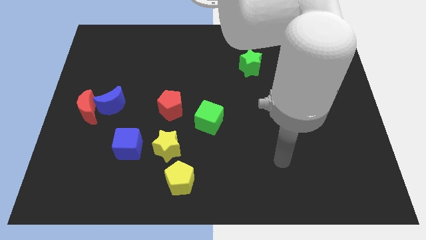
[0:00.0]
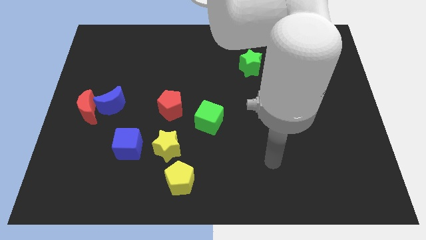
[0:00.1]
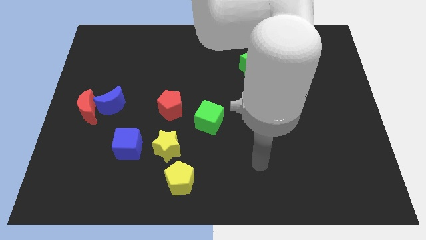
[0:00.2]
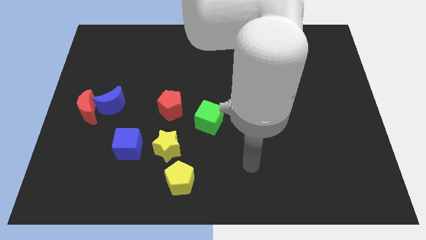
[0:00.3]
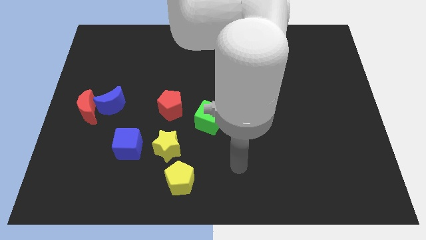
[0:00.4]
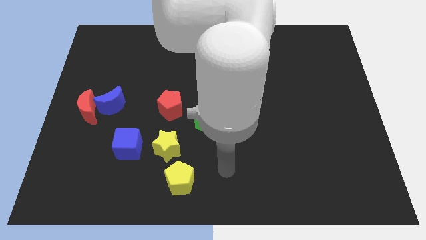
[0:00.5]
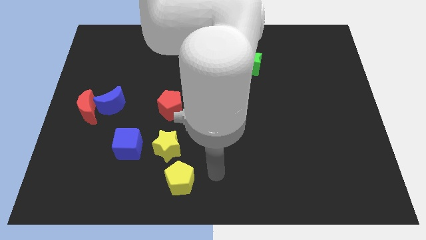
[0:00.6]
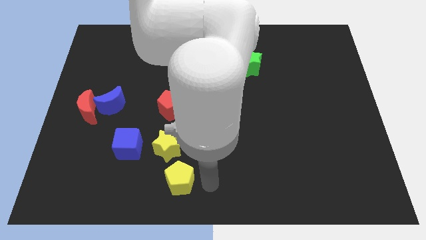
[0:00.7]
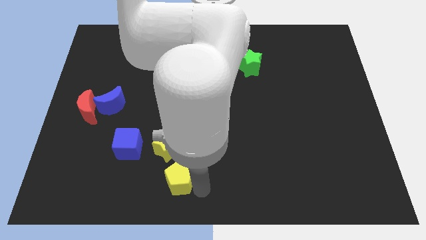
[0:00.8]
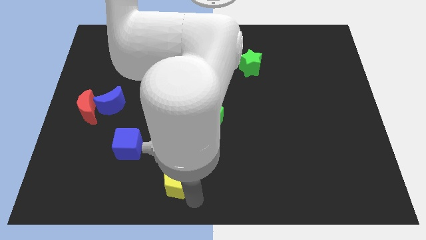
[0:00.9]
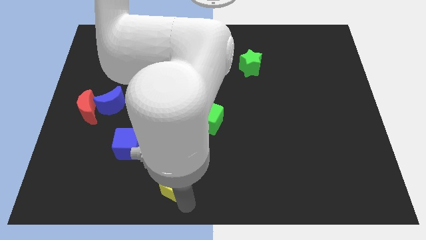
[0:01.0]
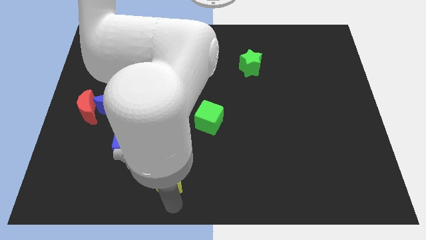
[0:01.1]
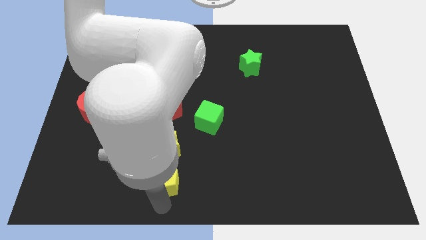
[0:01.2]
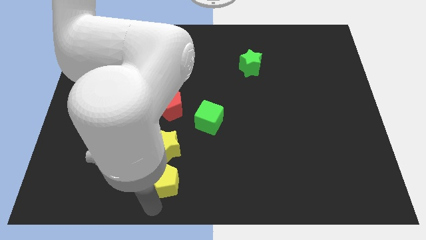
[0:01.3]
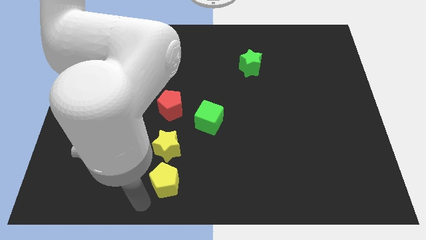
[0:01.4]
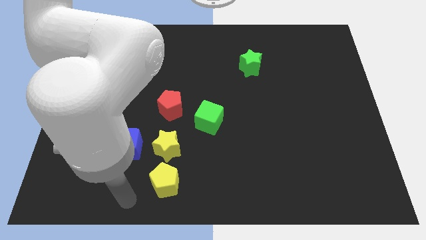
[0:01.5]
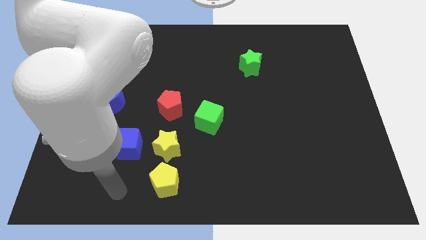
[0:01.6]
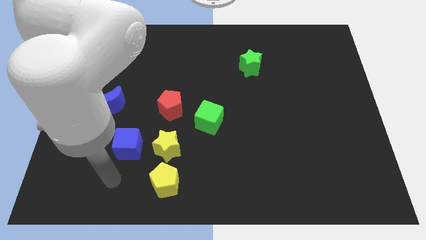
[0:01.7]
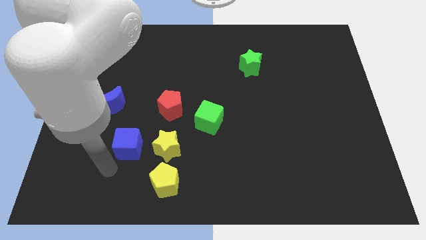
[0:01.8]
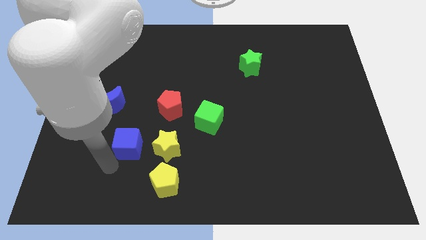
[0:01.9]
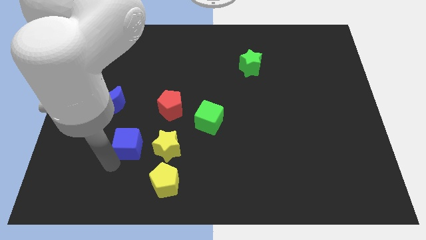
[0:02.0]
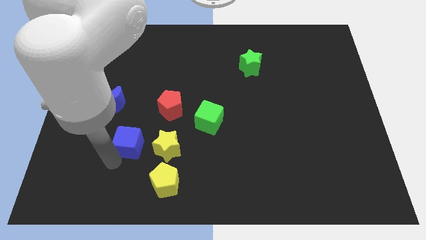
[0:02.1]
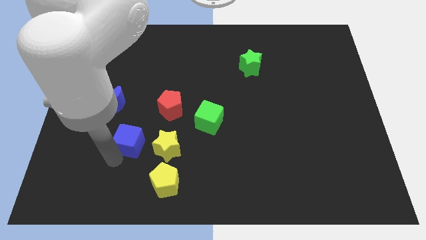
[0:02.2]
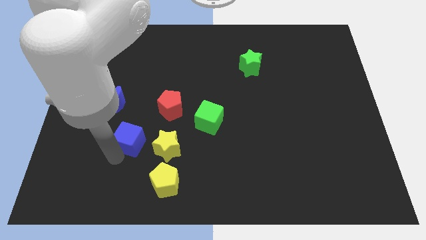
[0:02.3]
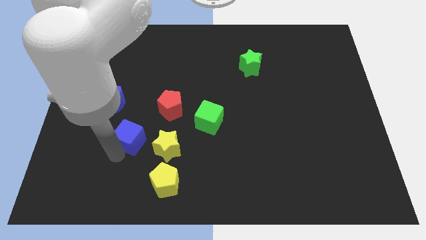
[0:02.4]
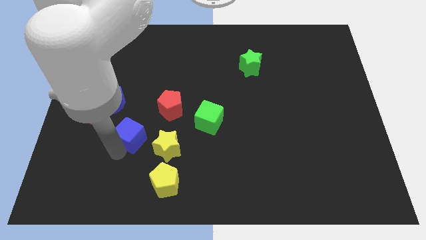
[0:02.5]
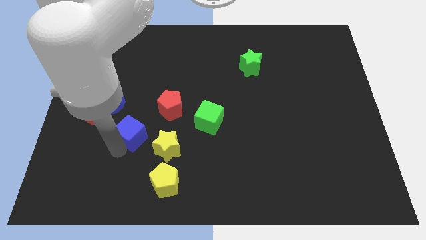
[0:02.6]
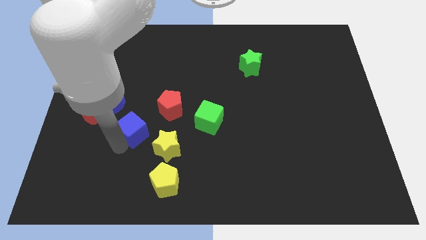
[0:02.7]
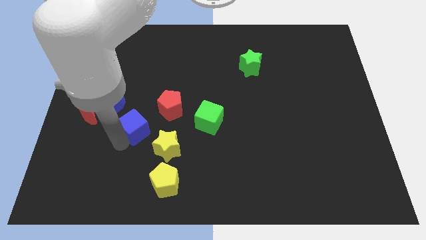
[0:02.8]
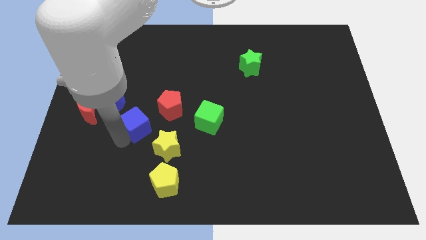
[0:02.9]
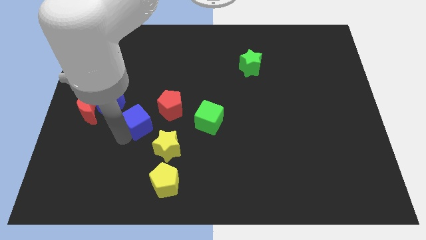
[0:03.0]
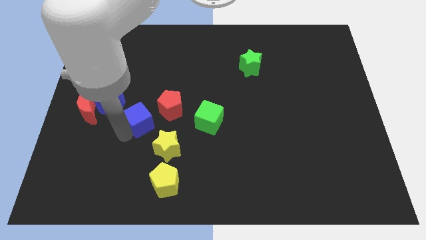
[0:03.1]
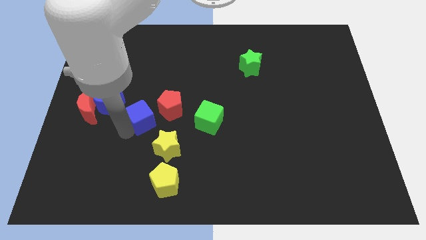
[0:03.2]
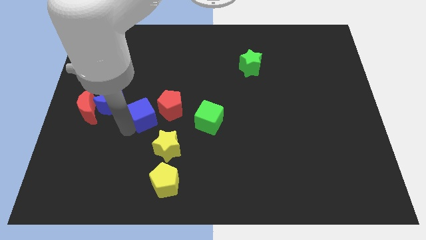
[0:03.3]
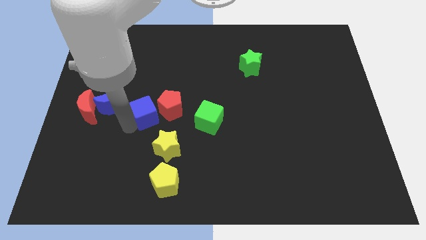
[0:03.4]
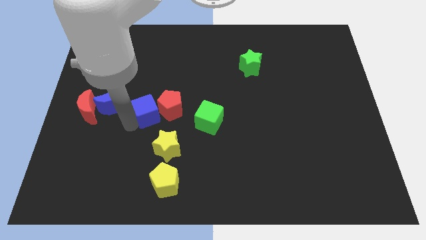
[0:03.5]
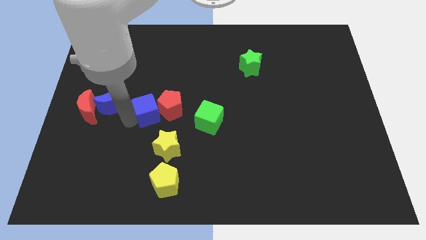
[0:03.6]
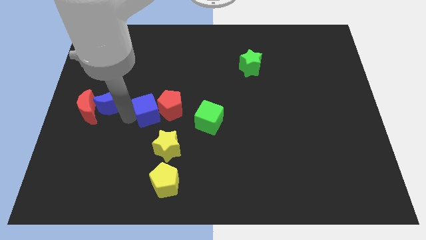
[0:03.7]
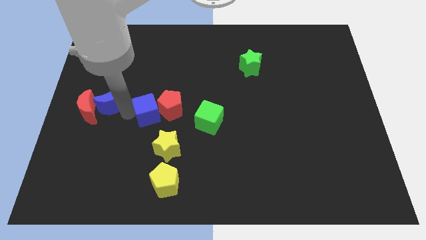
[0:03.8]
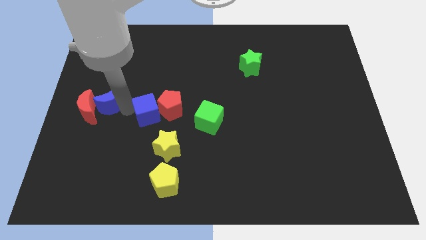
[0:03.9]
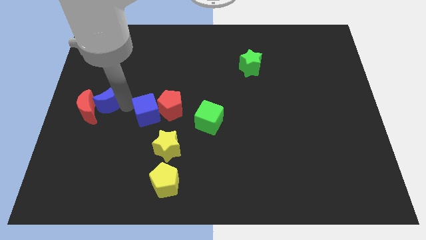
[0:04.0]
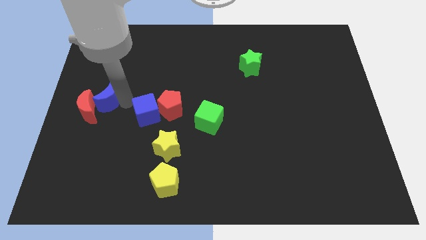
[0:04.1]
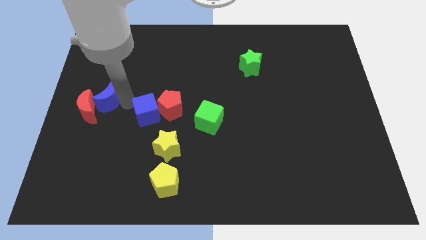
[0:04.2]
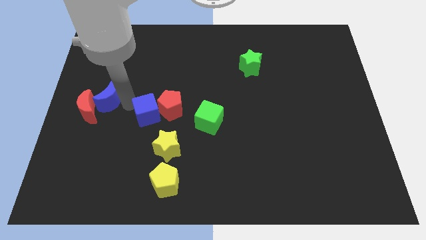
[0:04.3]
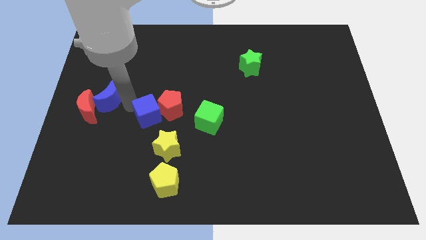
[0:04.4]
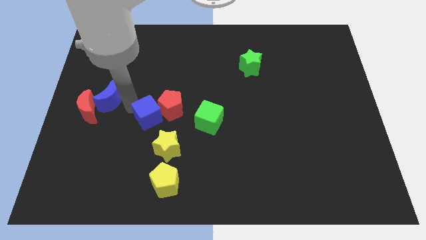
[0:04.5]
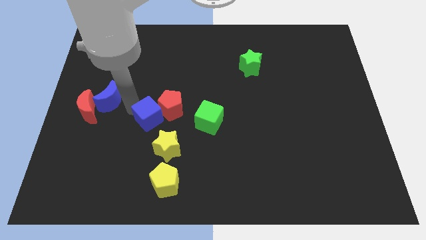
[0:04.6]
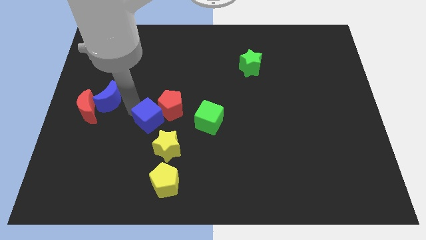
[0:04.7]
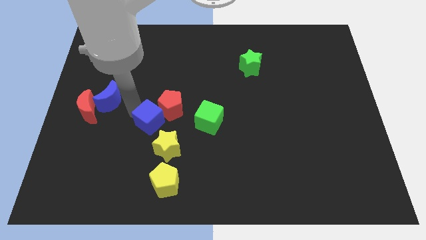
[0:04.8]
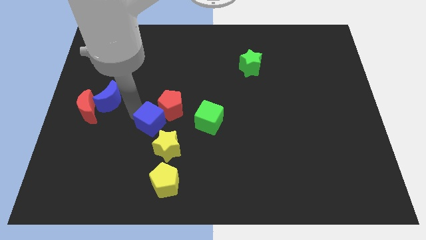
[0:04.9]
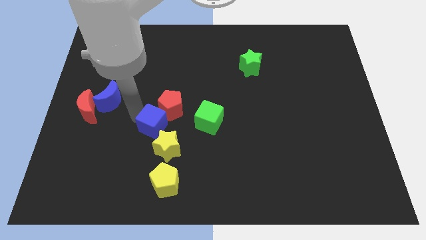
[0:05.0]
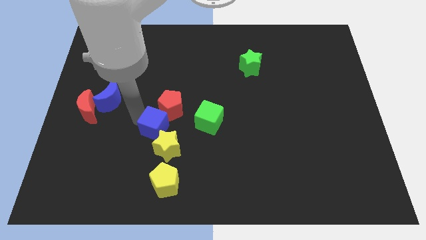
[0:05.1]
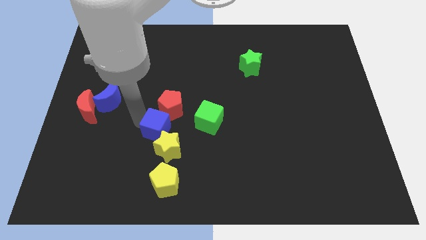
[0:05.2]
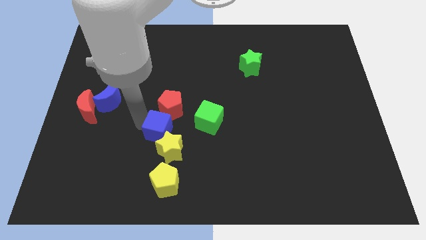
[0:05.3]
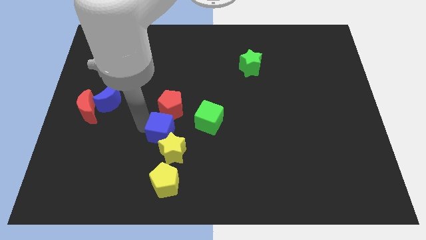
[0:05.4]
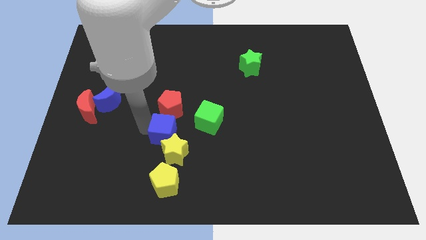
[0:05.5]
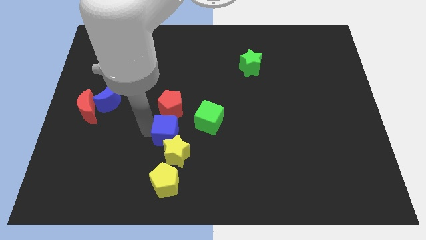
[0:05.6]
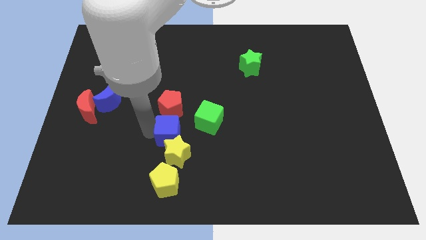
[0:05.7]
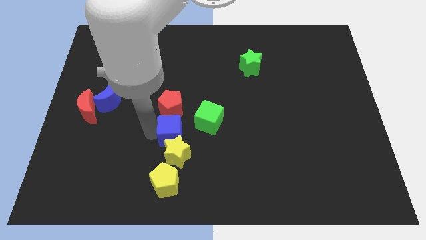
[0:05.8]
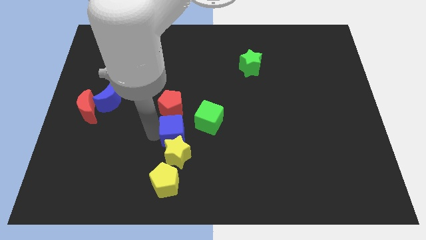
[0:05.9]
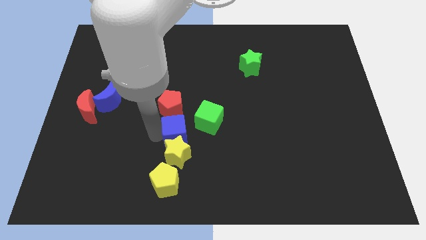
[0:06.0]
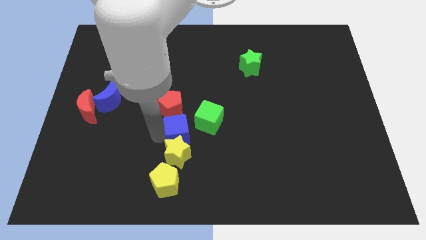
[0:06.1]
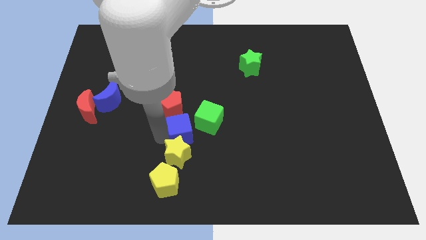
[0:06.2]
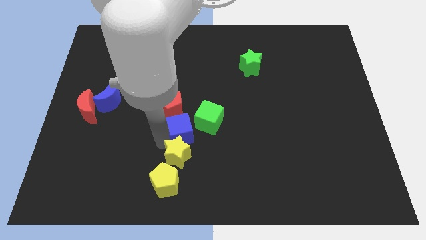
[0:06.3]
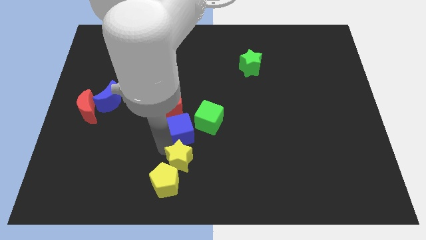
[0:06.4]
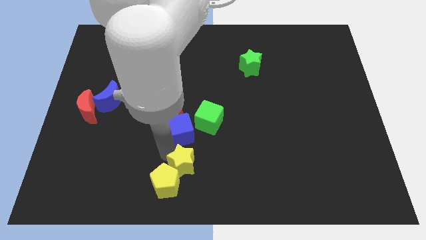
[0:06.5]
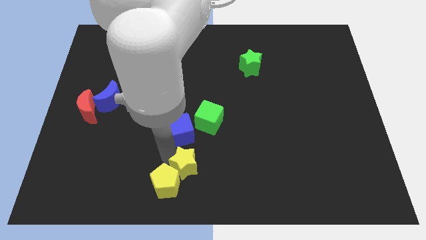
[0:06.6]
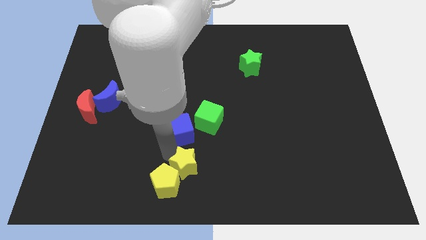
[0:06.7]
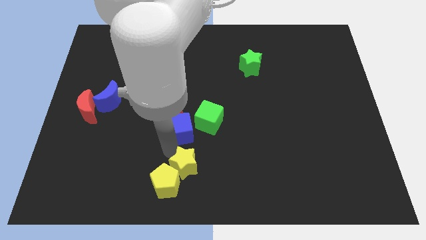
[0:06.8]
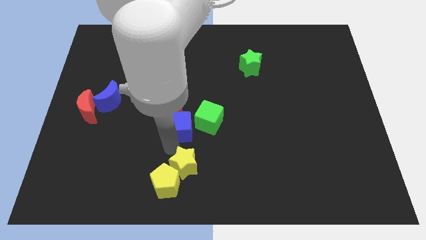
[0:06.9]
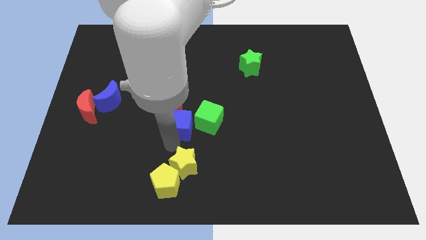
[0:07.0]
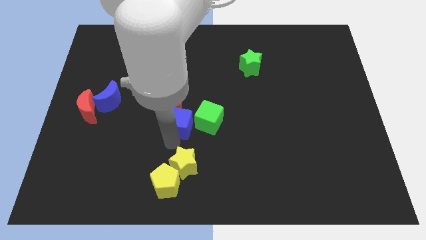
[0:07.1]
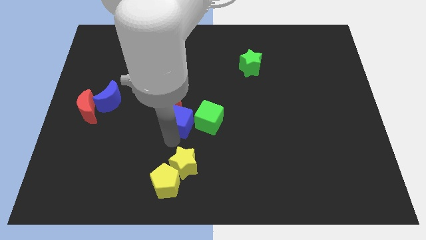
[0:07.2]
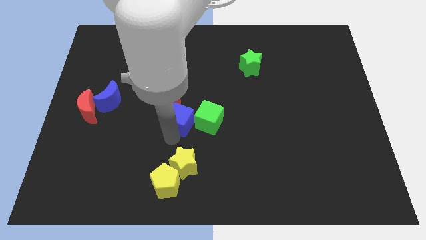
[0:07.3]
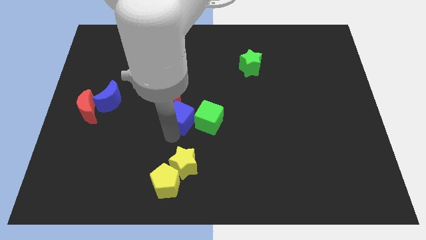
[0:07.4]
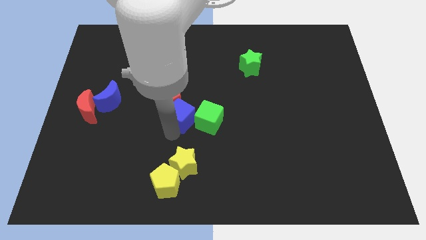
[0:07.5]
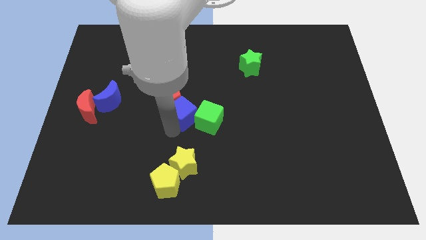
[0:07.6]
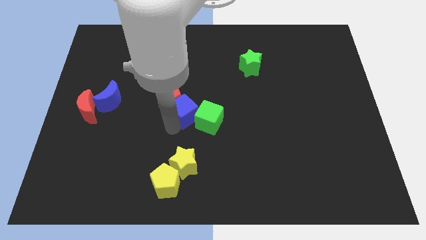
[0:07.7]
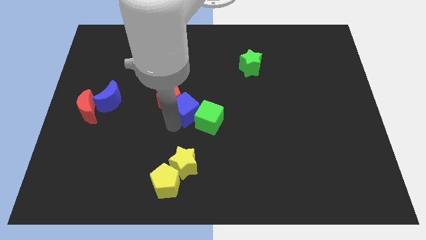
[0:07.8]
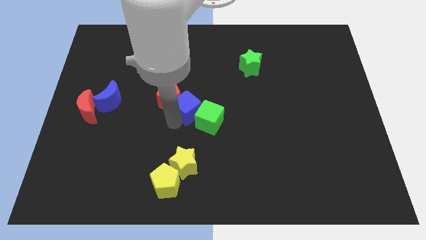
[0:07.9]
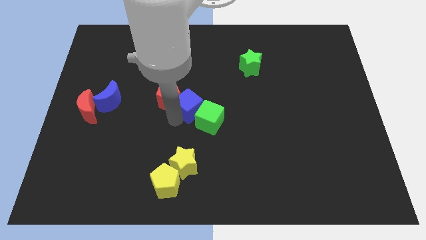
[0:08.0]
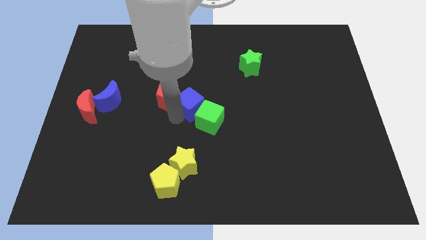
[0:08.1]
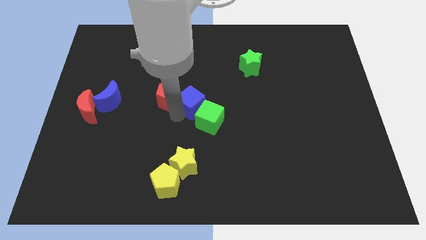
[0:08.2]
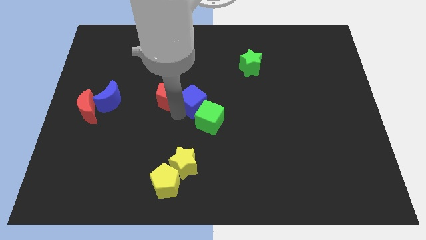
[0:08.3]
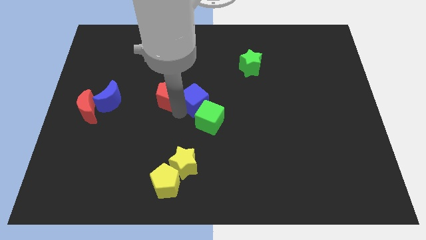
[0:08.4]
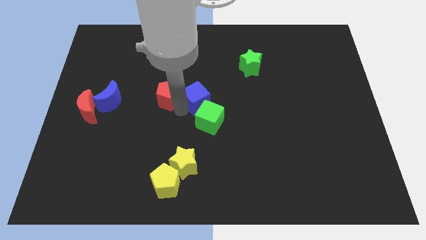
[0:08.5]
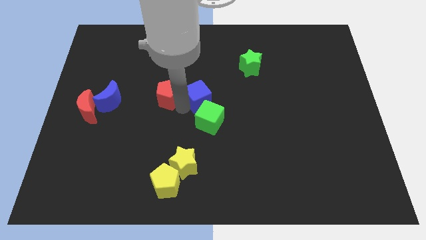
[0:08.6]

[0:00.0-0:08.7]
slide the blue cube up and right diagonally
